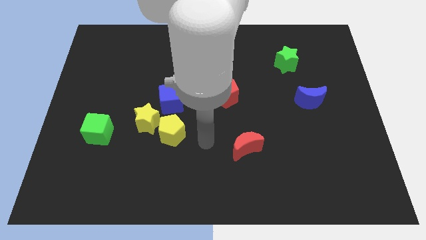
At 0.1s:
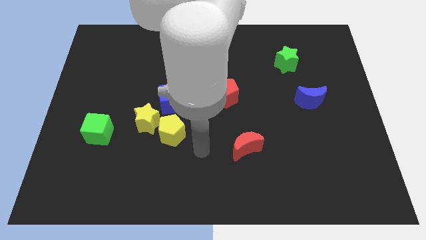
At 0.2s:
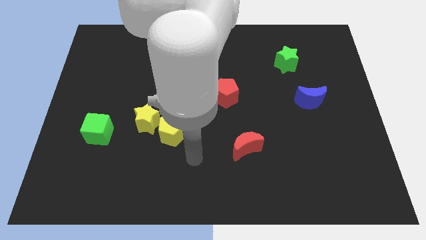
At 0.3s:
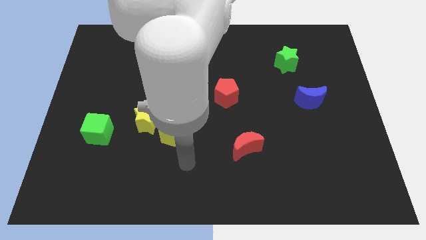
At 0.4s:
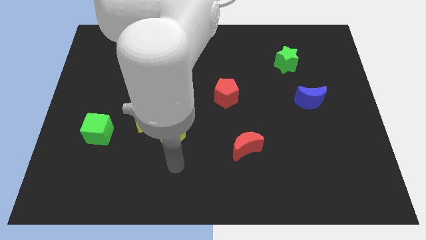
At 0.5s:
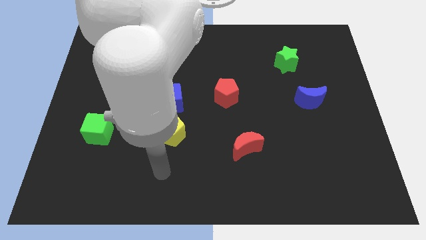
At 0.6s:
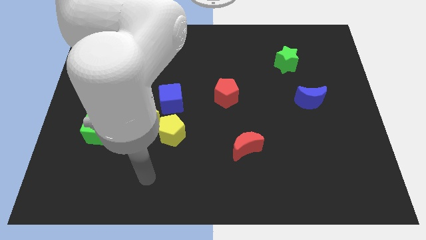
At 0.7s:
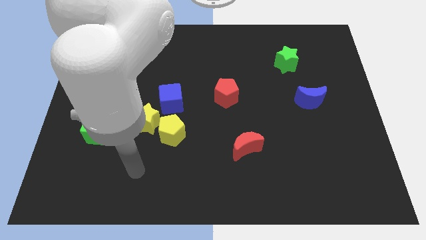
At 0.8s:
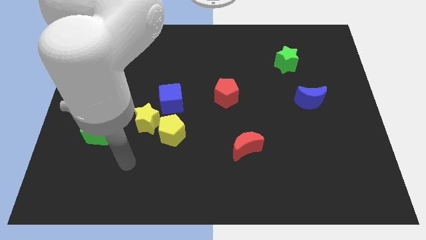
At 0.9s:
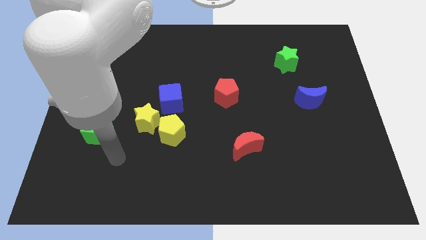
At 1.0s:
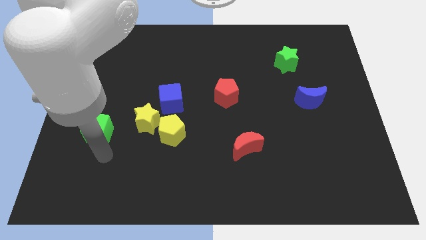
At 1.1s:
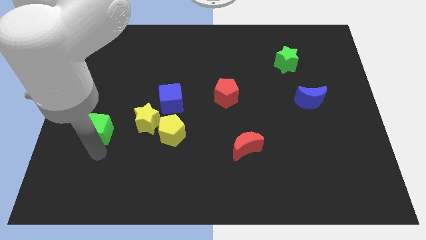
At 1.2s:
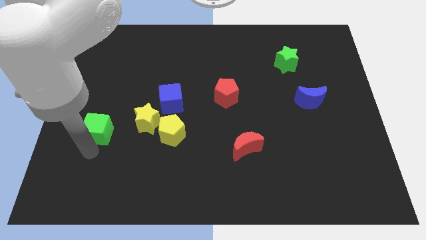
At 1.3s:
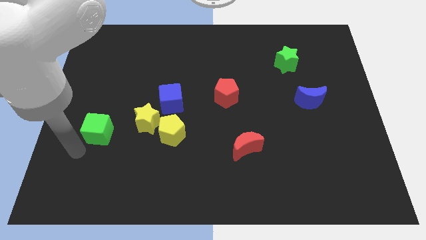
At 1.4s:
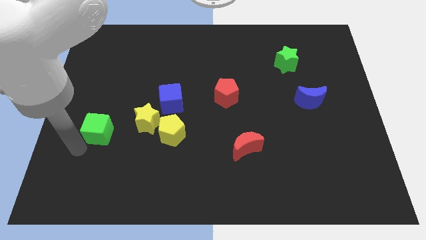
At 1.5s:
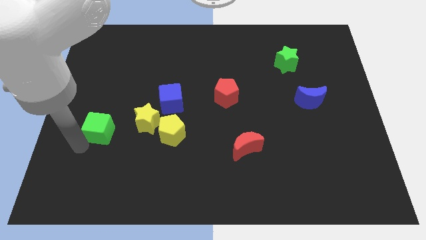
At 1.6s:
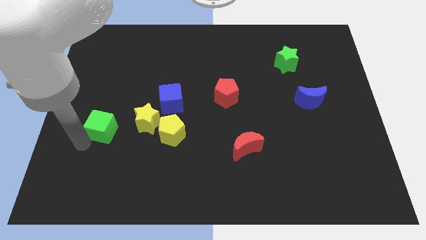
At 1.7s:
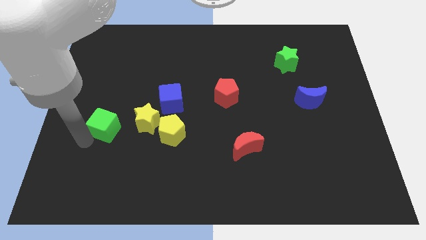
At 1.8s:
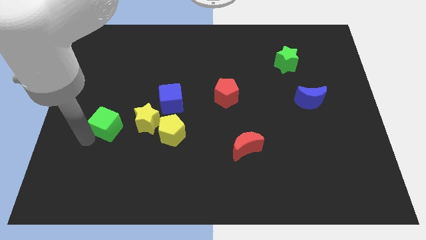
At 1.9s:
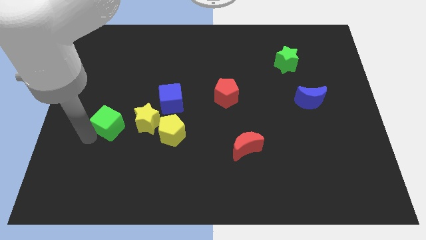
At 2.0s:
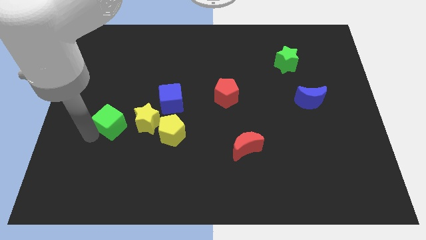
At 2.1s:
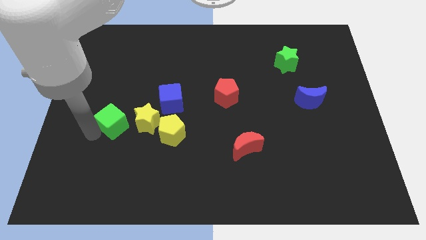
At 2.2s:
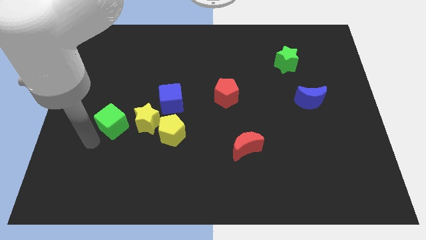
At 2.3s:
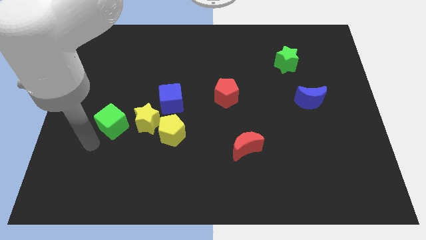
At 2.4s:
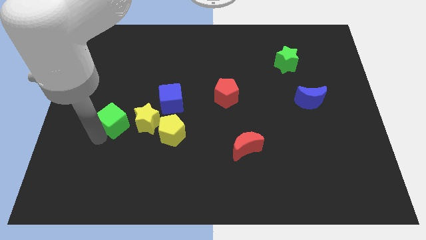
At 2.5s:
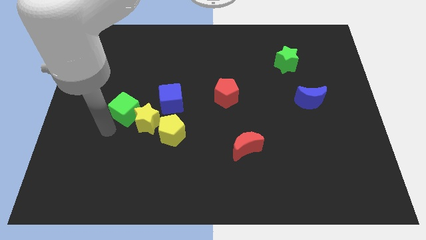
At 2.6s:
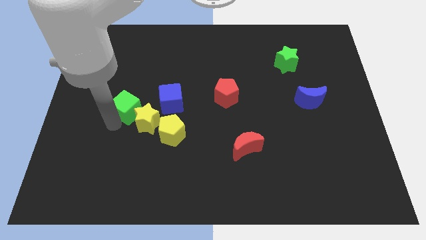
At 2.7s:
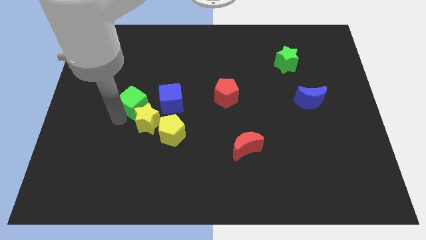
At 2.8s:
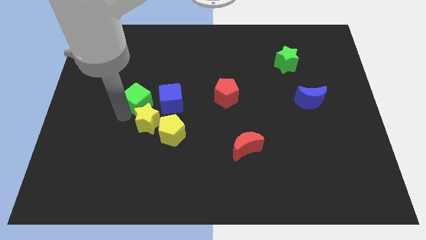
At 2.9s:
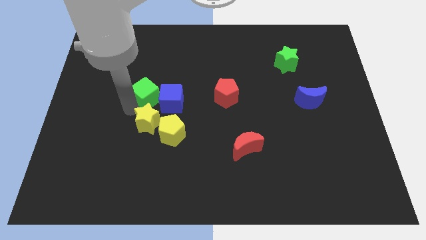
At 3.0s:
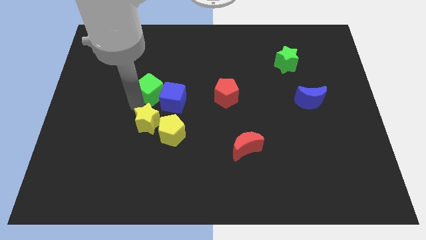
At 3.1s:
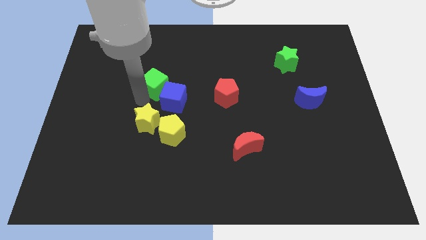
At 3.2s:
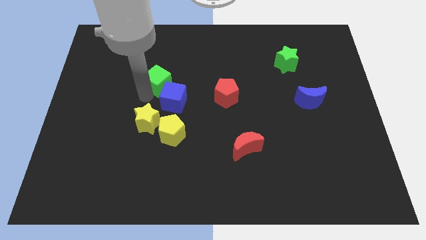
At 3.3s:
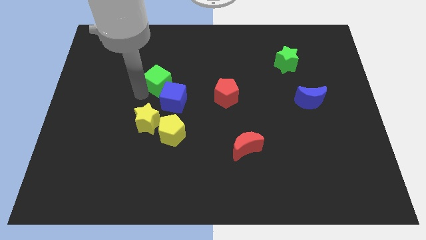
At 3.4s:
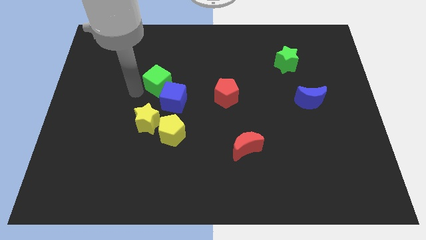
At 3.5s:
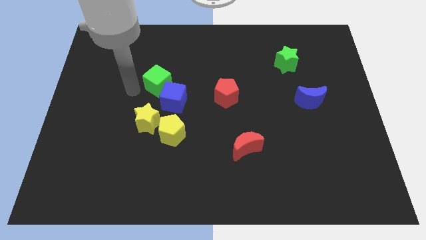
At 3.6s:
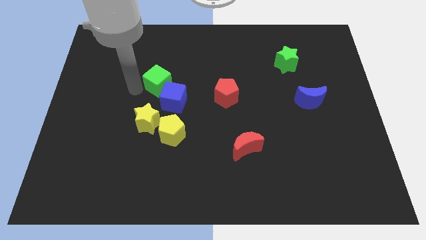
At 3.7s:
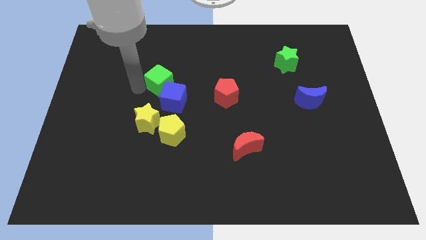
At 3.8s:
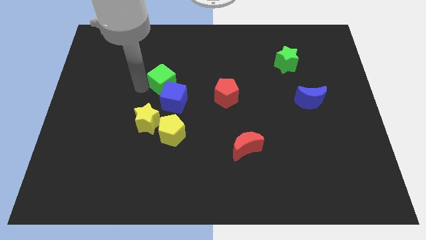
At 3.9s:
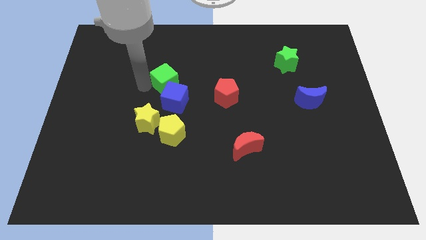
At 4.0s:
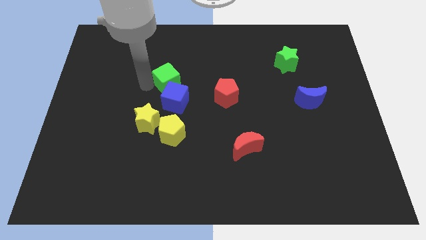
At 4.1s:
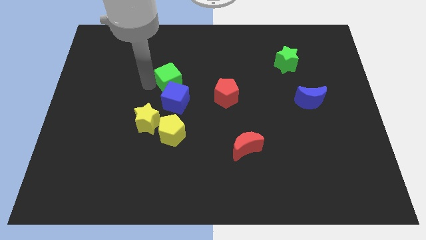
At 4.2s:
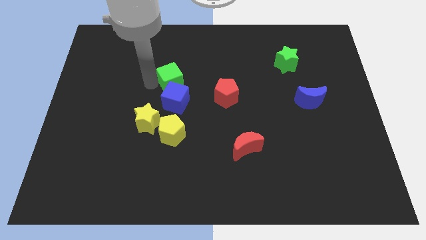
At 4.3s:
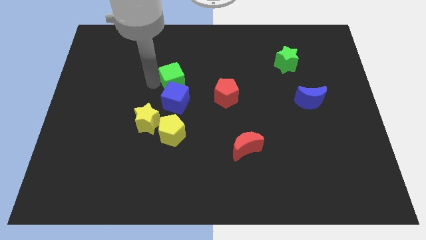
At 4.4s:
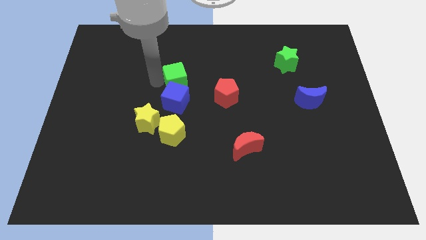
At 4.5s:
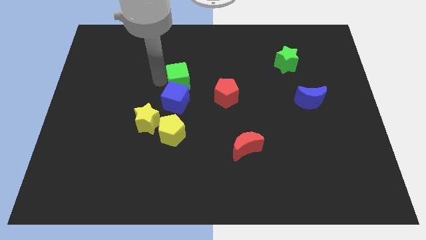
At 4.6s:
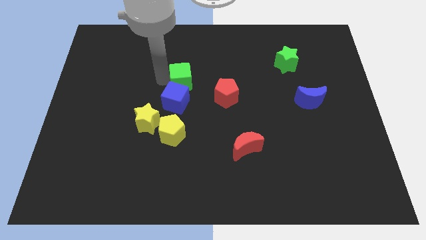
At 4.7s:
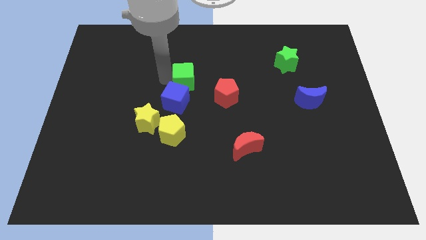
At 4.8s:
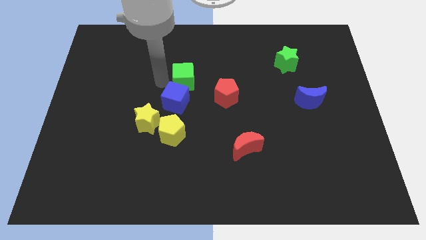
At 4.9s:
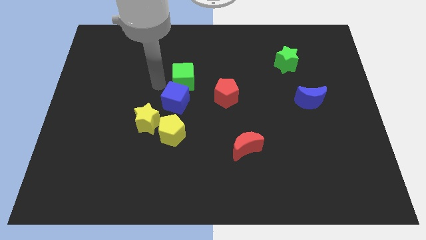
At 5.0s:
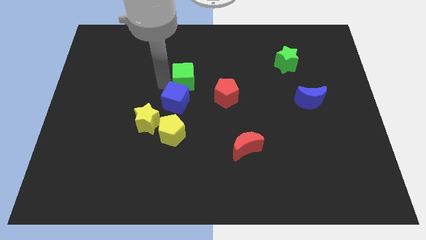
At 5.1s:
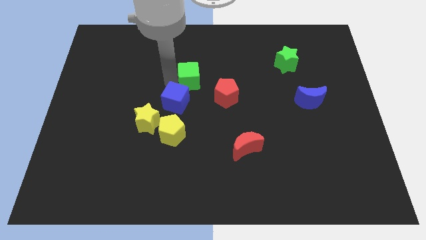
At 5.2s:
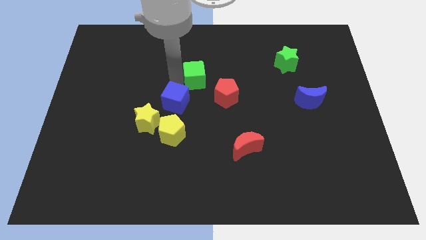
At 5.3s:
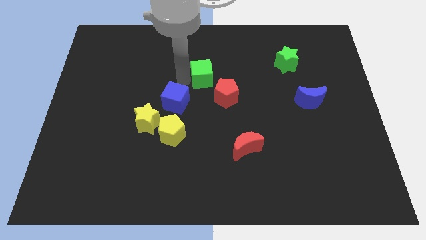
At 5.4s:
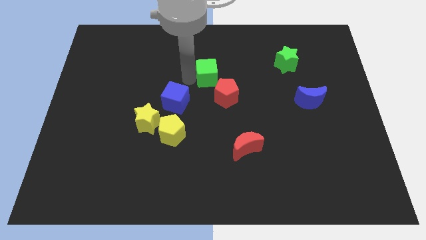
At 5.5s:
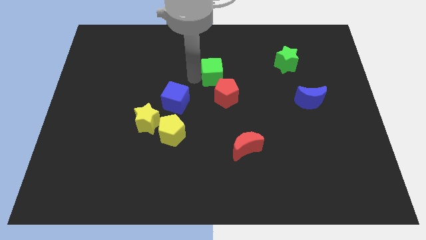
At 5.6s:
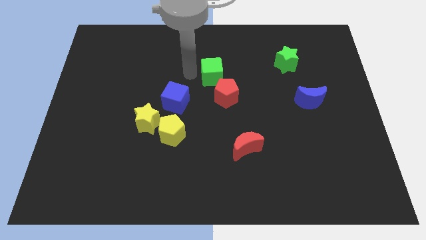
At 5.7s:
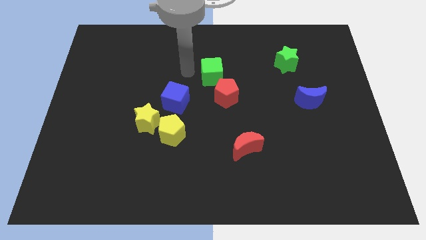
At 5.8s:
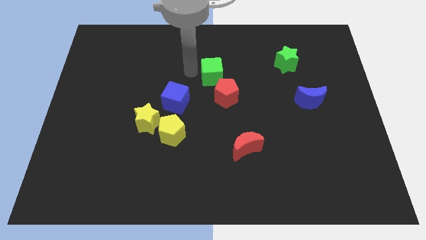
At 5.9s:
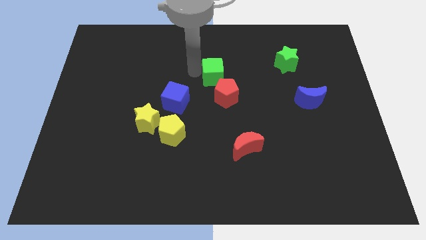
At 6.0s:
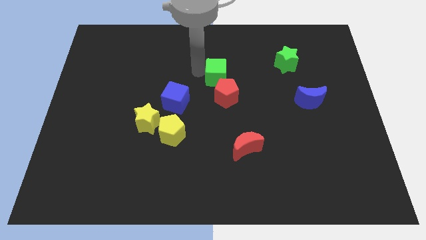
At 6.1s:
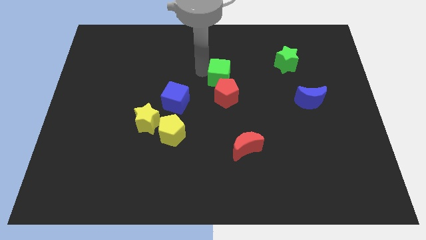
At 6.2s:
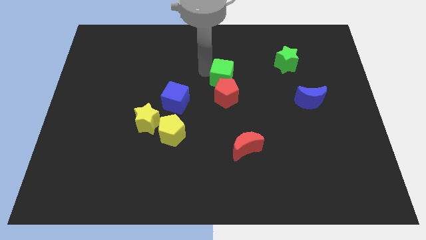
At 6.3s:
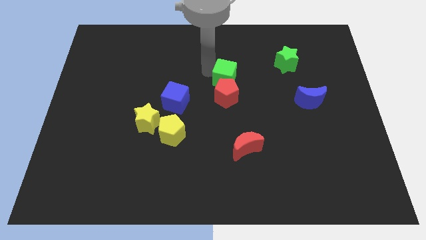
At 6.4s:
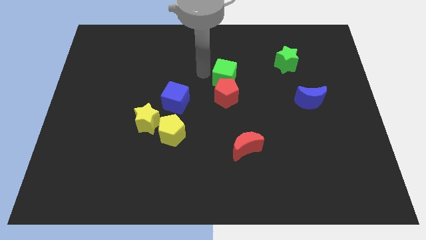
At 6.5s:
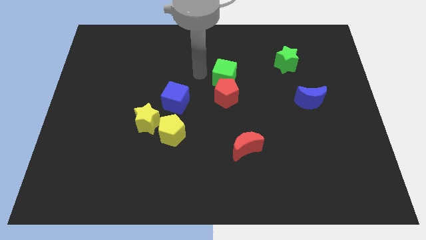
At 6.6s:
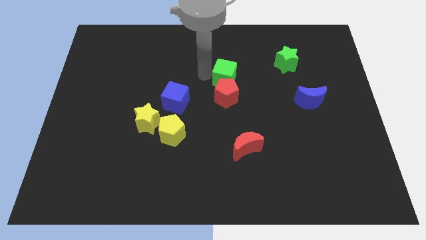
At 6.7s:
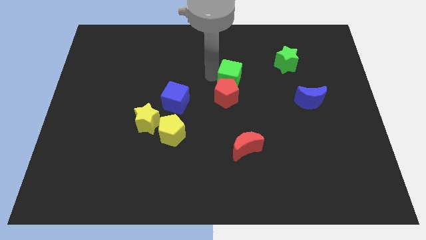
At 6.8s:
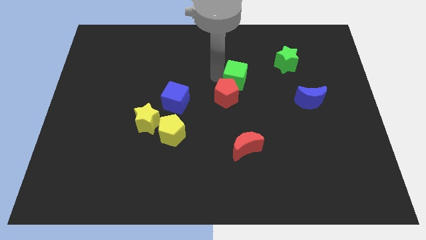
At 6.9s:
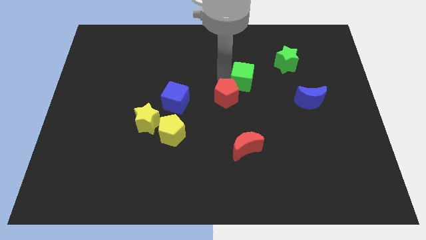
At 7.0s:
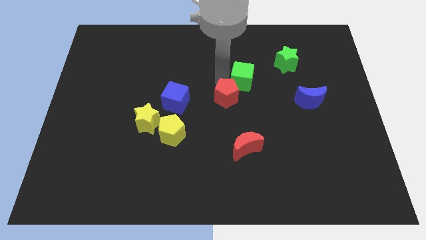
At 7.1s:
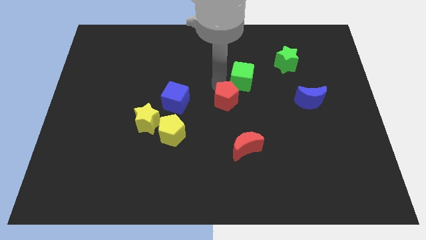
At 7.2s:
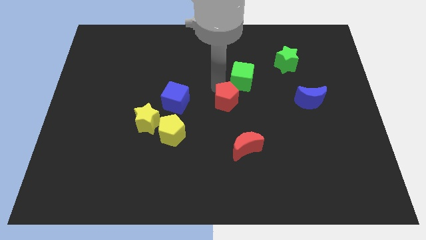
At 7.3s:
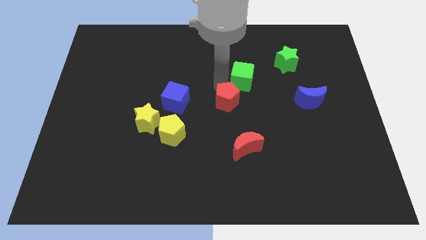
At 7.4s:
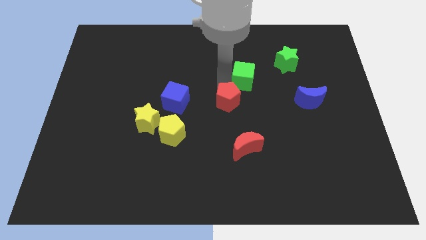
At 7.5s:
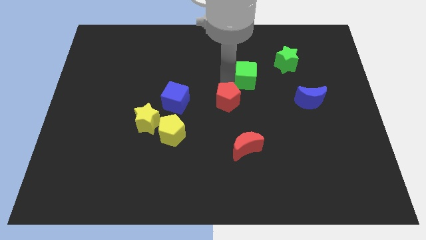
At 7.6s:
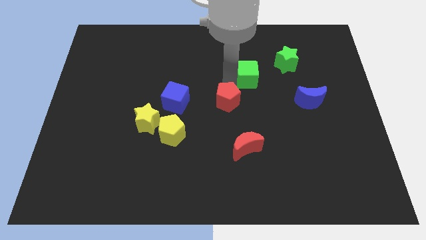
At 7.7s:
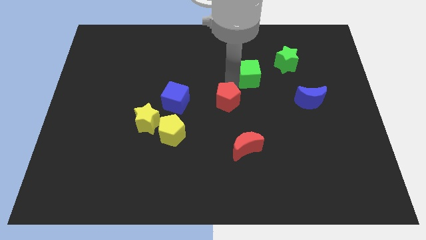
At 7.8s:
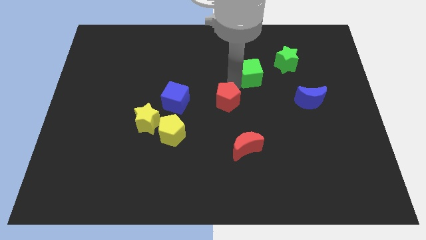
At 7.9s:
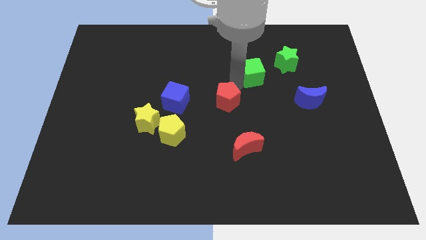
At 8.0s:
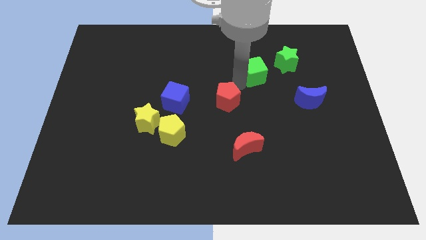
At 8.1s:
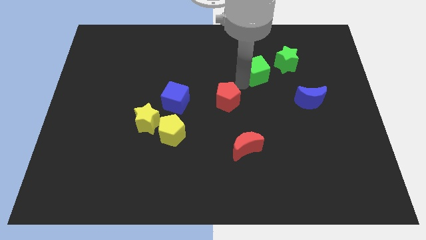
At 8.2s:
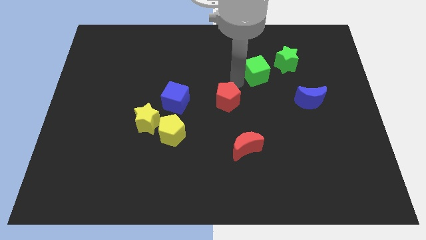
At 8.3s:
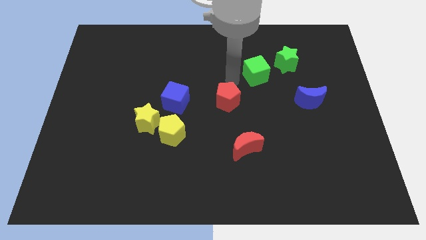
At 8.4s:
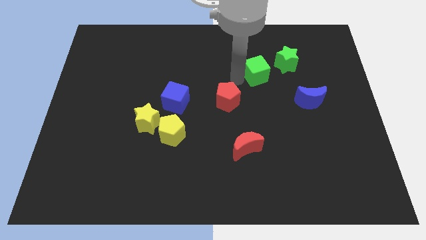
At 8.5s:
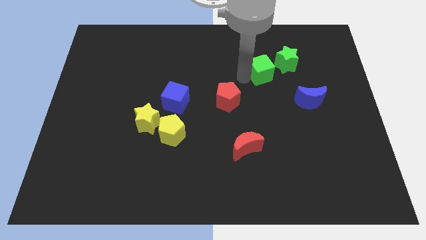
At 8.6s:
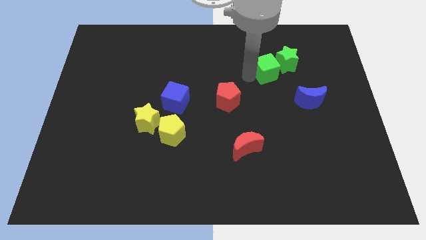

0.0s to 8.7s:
put the green cube to the green star
